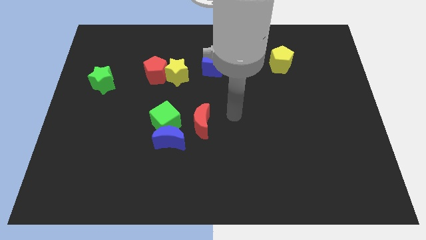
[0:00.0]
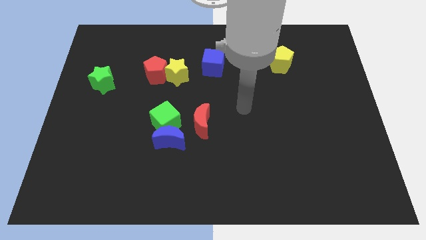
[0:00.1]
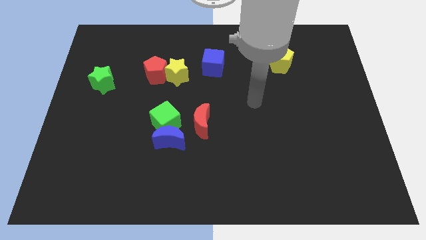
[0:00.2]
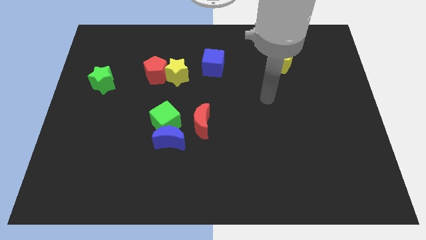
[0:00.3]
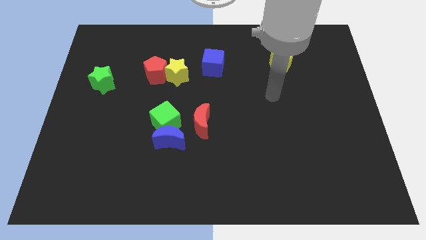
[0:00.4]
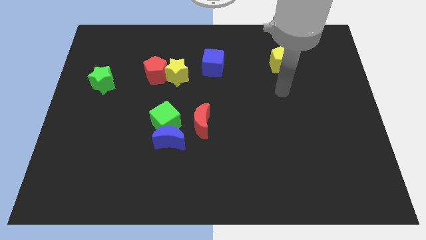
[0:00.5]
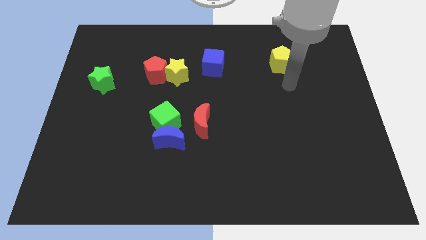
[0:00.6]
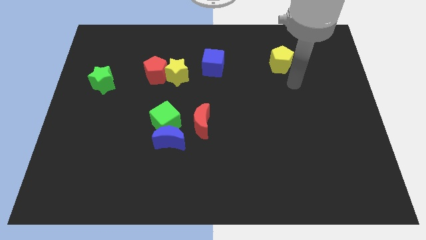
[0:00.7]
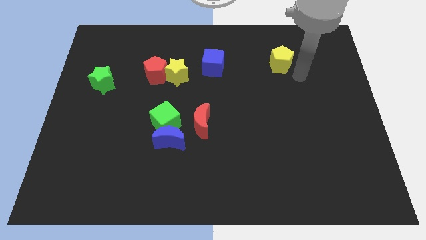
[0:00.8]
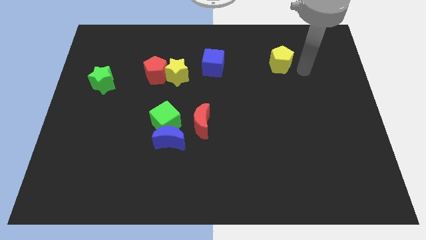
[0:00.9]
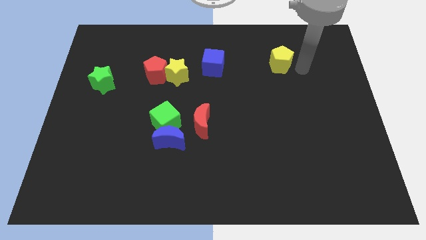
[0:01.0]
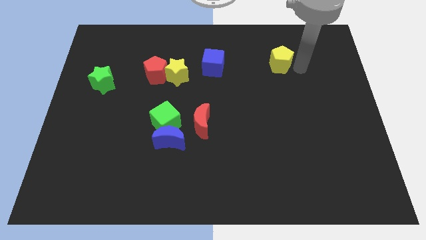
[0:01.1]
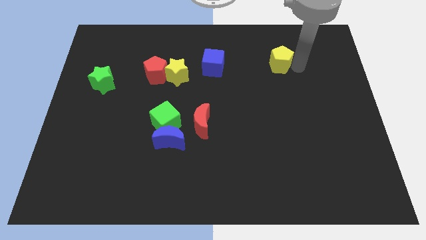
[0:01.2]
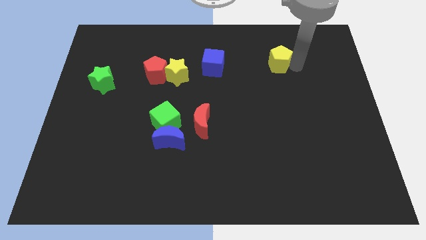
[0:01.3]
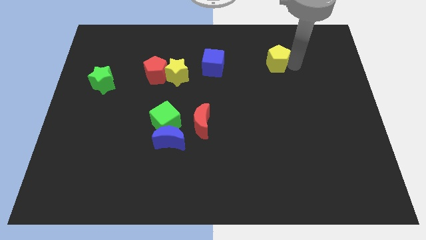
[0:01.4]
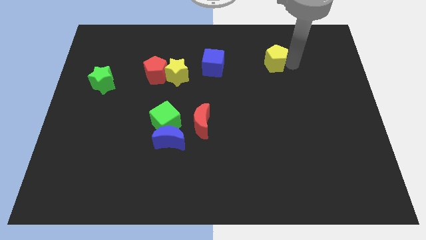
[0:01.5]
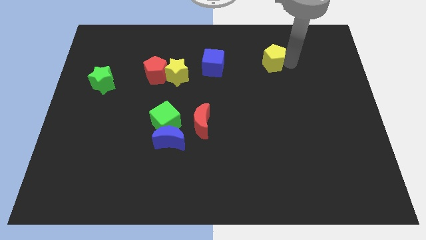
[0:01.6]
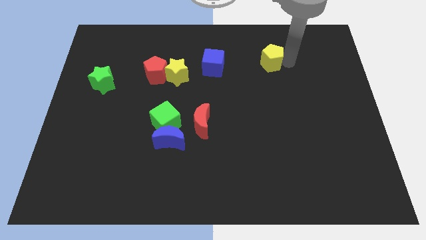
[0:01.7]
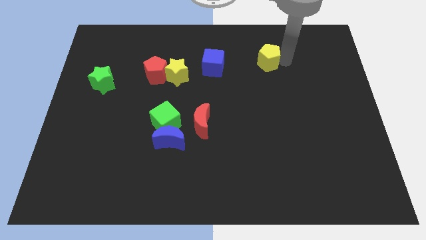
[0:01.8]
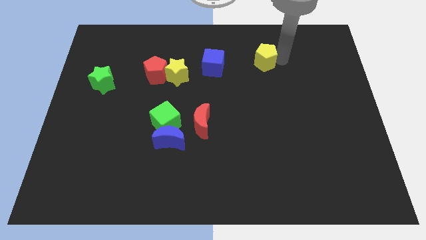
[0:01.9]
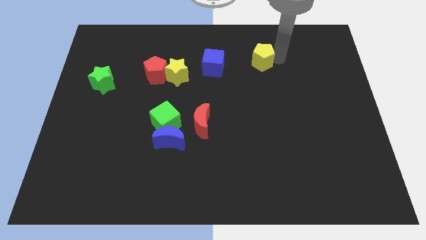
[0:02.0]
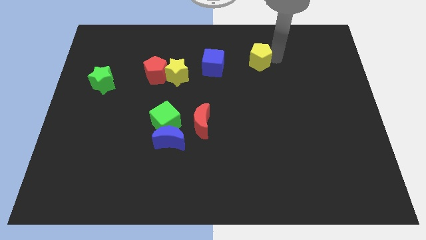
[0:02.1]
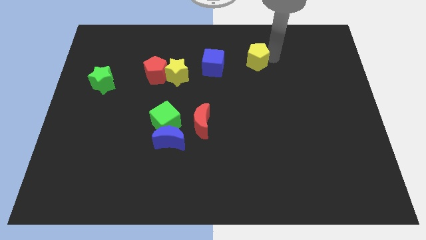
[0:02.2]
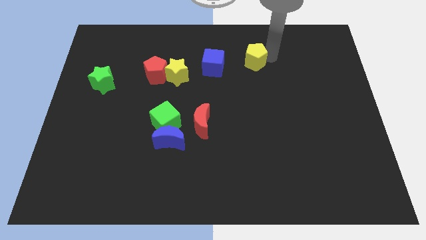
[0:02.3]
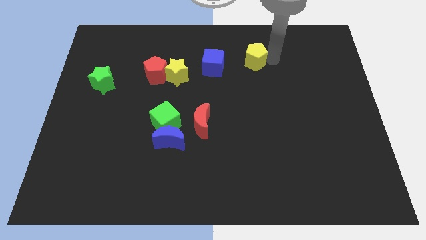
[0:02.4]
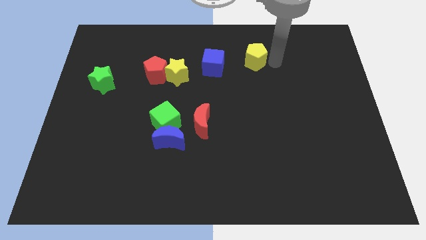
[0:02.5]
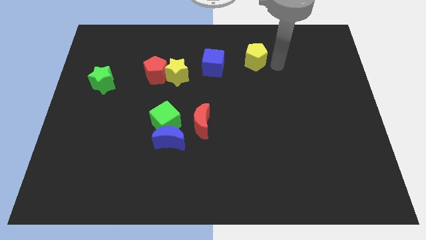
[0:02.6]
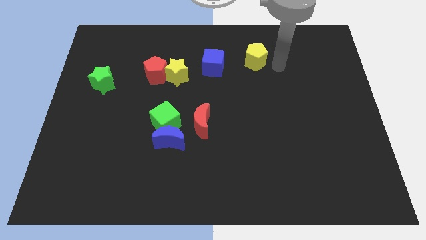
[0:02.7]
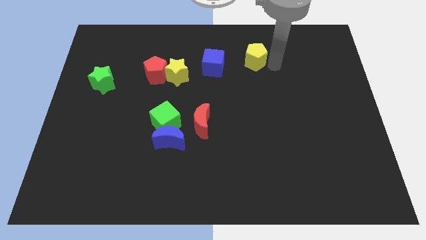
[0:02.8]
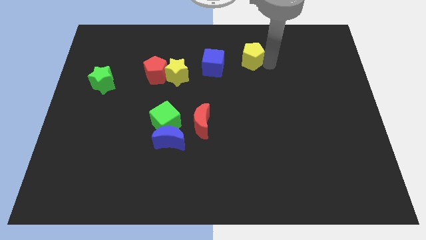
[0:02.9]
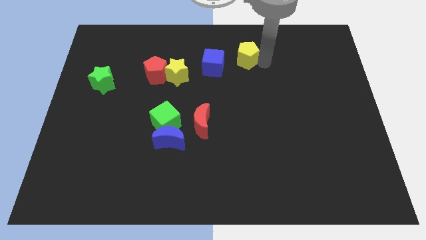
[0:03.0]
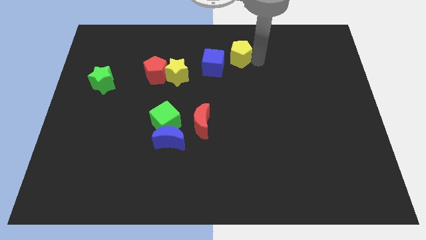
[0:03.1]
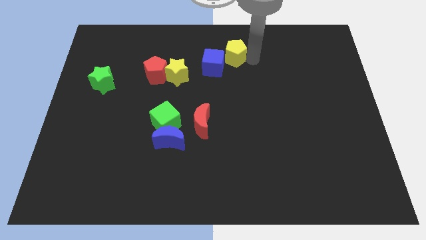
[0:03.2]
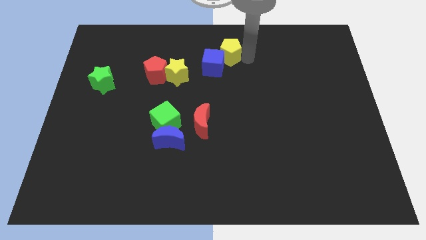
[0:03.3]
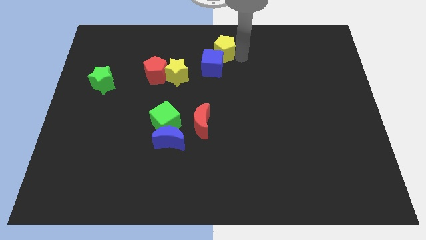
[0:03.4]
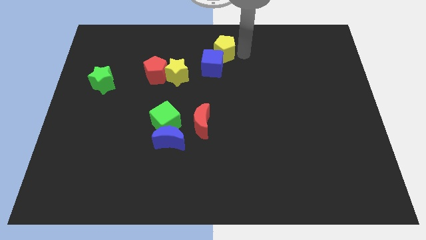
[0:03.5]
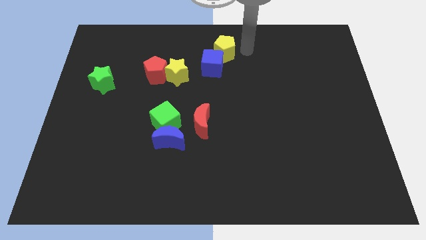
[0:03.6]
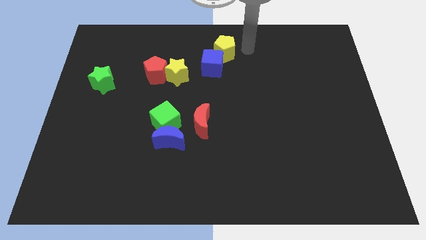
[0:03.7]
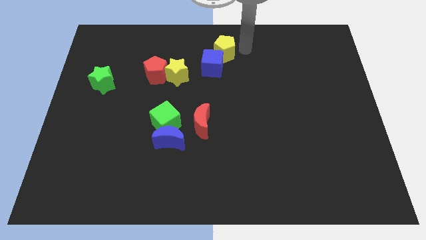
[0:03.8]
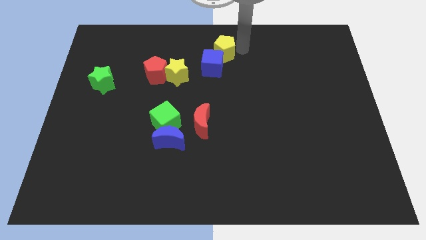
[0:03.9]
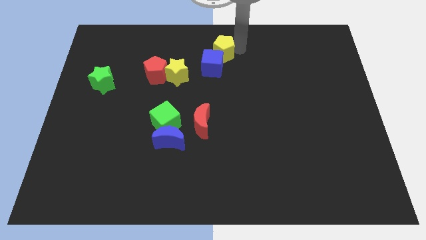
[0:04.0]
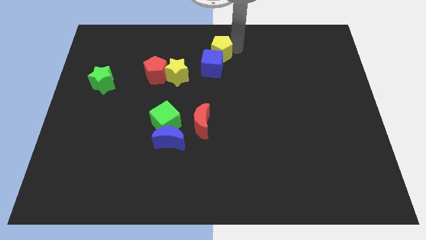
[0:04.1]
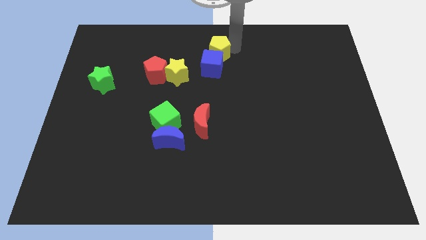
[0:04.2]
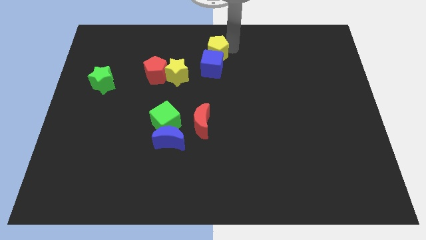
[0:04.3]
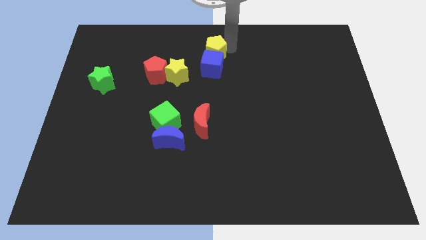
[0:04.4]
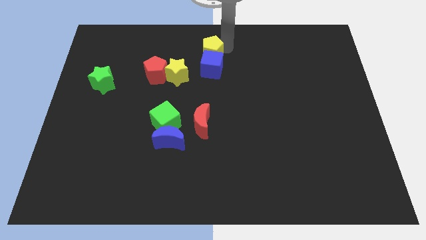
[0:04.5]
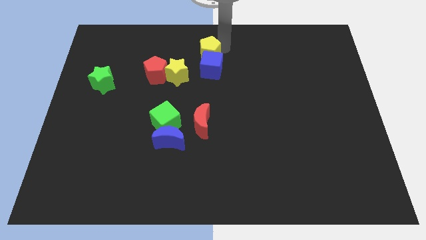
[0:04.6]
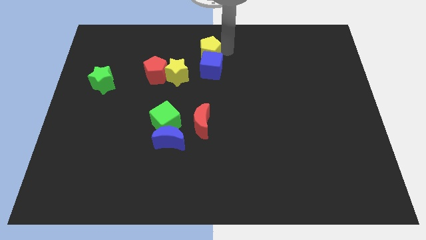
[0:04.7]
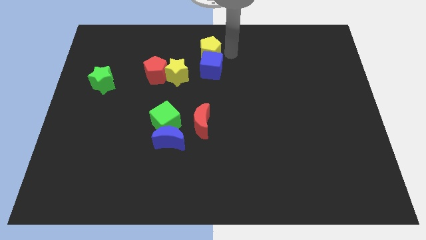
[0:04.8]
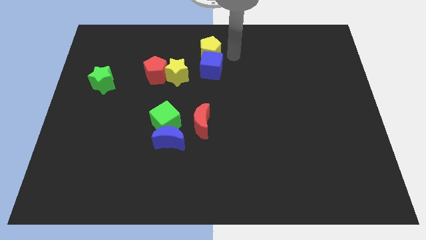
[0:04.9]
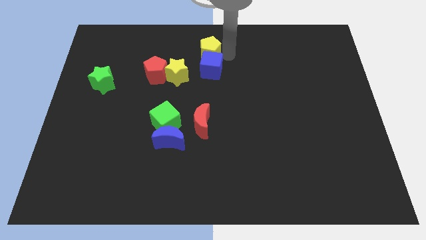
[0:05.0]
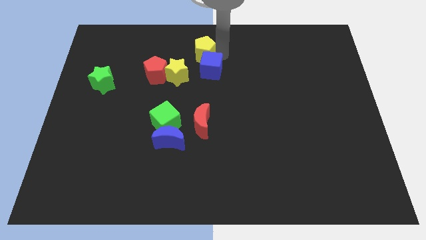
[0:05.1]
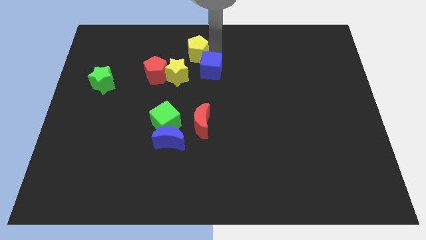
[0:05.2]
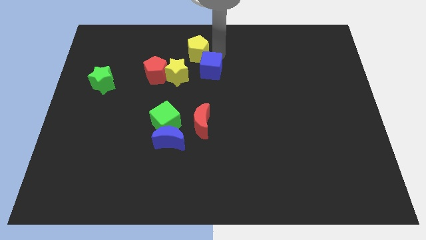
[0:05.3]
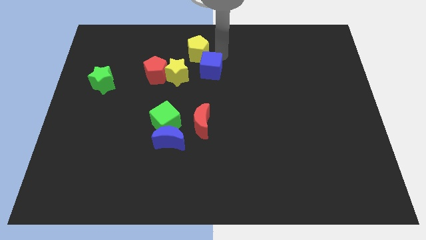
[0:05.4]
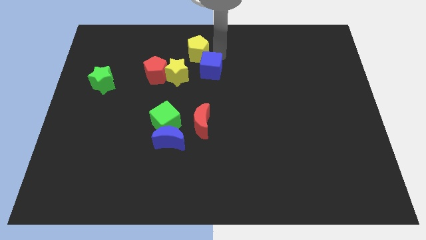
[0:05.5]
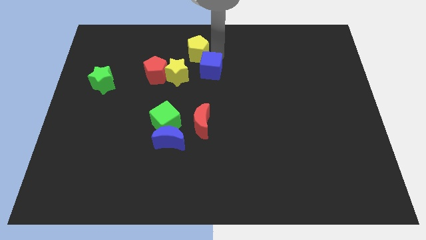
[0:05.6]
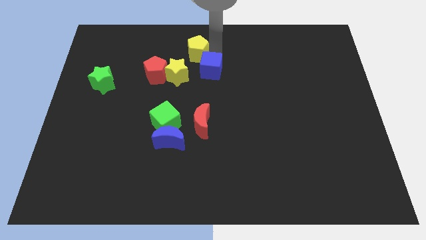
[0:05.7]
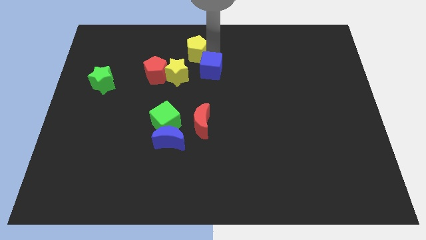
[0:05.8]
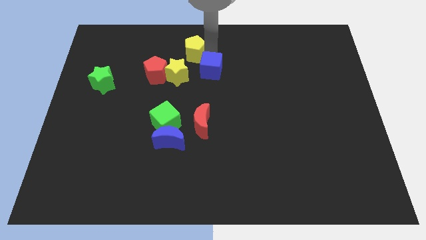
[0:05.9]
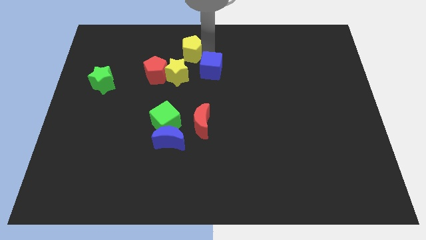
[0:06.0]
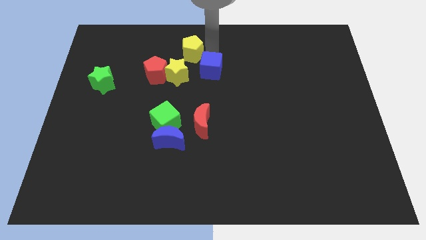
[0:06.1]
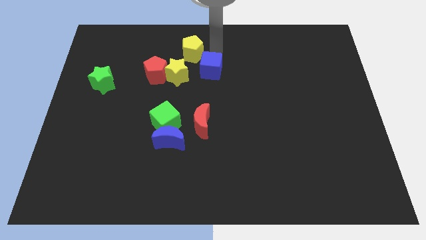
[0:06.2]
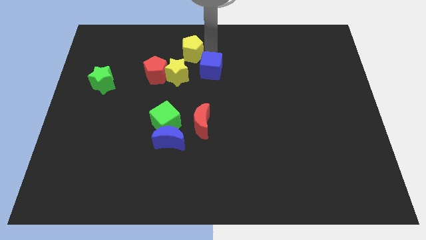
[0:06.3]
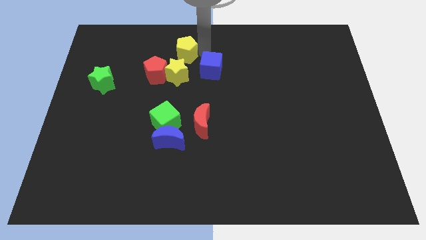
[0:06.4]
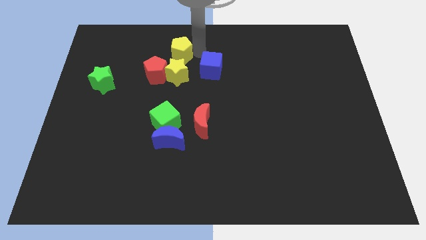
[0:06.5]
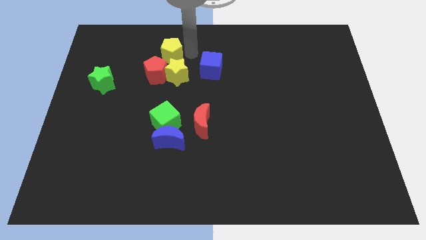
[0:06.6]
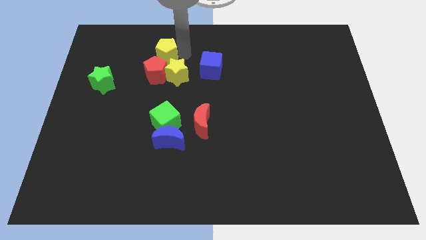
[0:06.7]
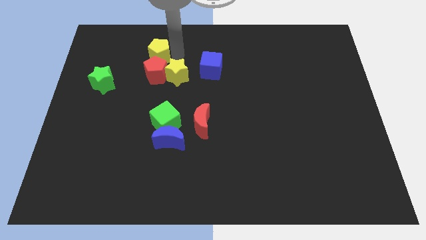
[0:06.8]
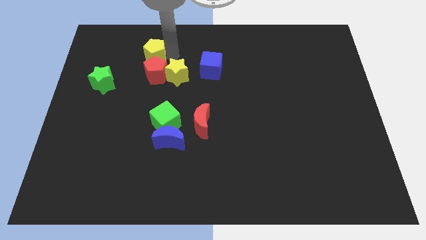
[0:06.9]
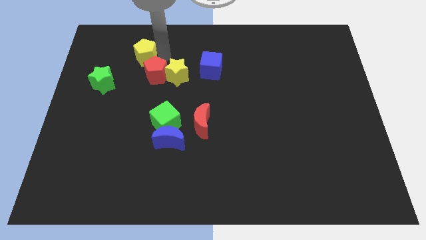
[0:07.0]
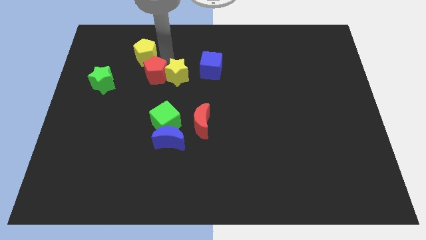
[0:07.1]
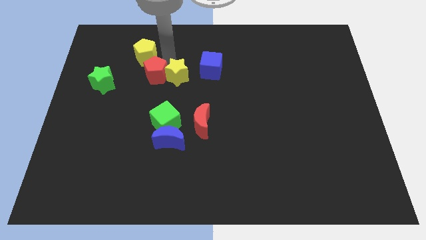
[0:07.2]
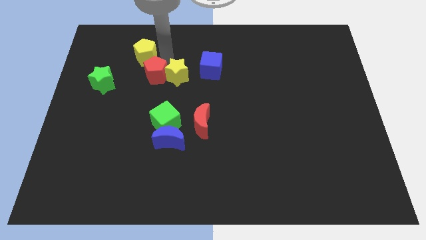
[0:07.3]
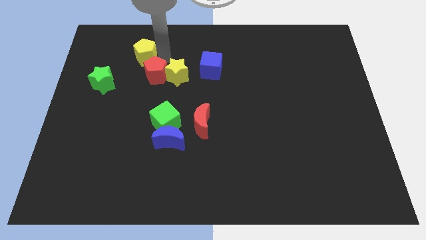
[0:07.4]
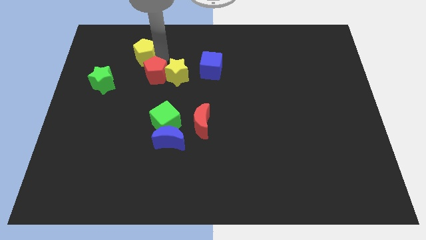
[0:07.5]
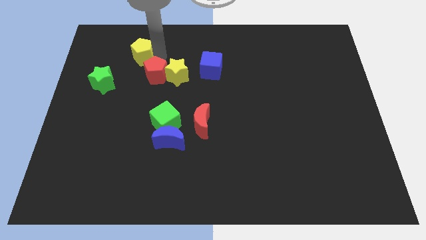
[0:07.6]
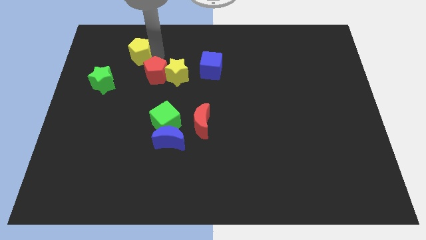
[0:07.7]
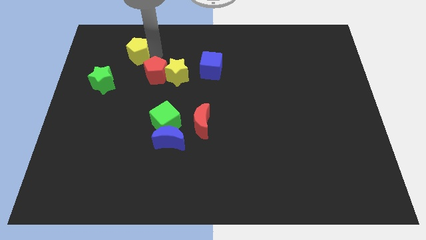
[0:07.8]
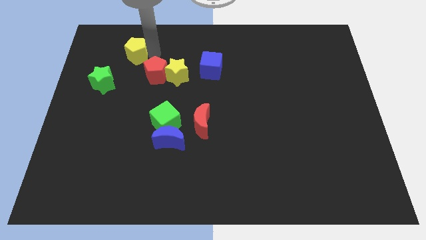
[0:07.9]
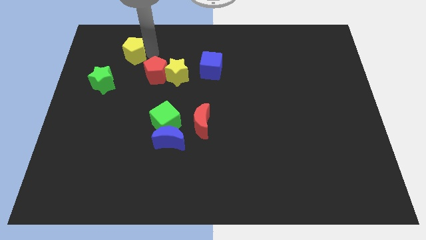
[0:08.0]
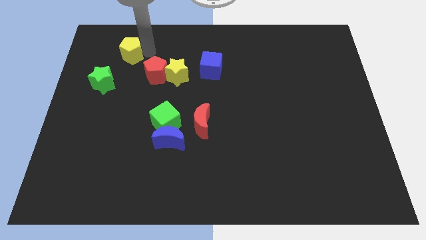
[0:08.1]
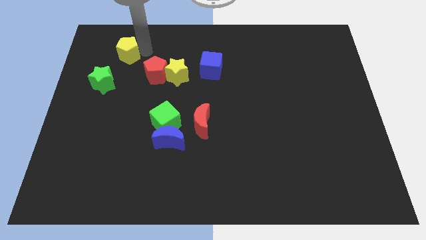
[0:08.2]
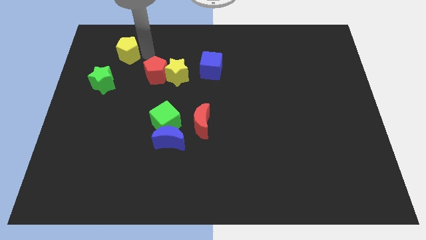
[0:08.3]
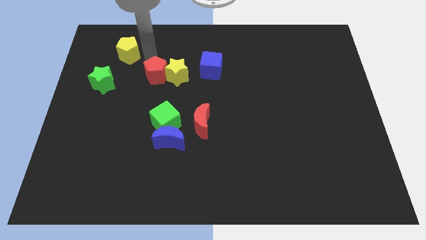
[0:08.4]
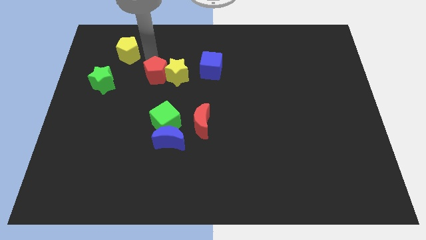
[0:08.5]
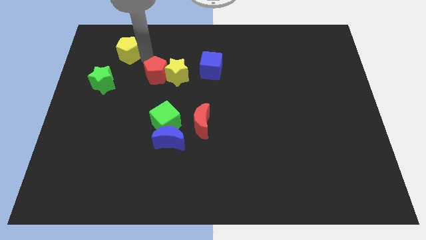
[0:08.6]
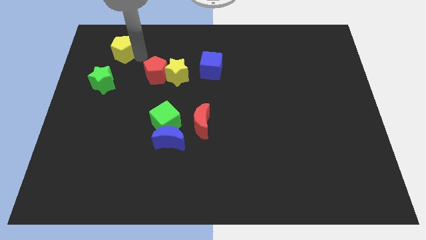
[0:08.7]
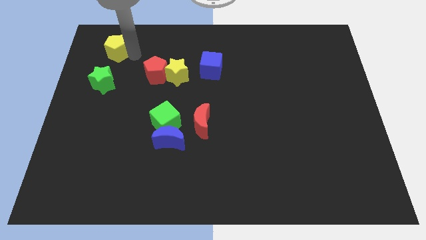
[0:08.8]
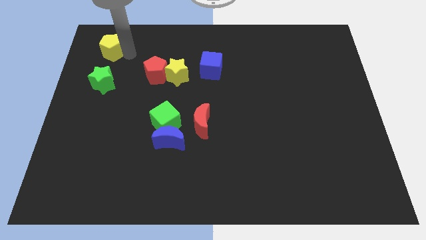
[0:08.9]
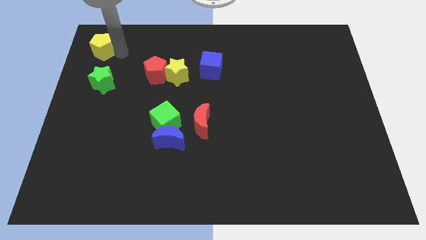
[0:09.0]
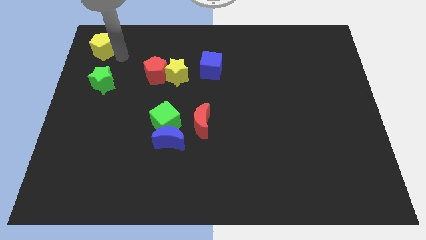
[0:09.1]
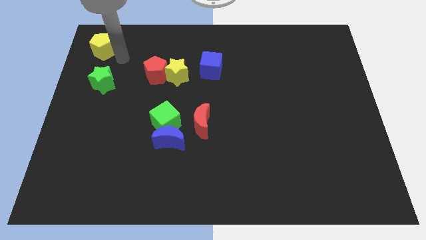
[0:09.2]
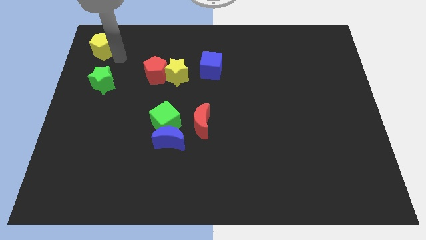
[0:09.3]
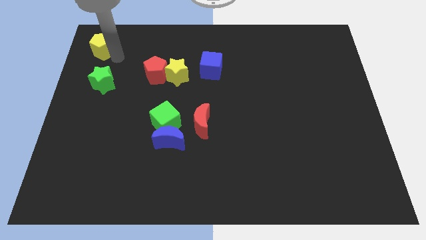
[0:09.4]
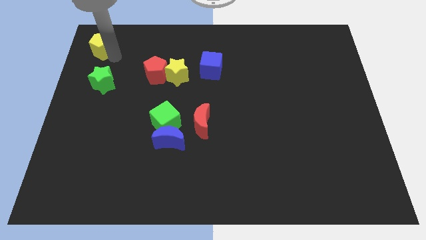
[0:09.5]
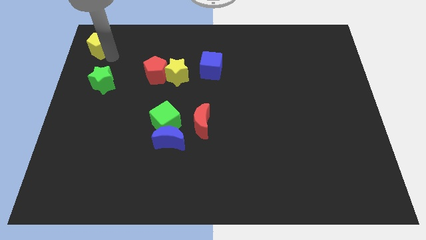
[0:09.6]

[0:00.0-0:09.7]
push the yellow pentagon to the top left of the board
